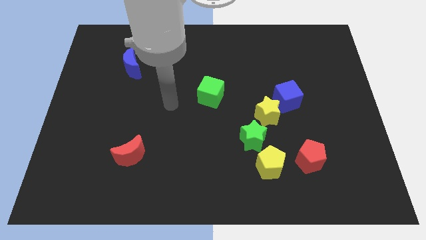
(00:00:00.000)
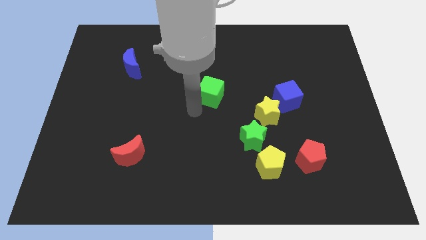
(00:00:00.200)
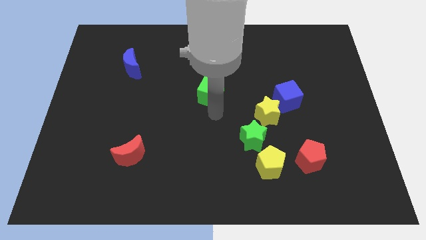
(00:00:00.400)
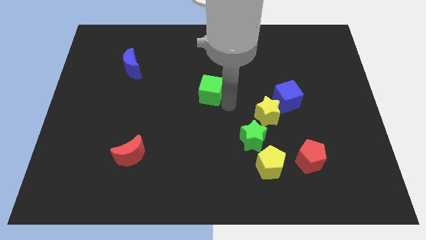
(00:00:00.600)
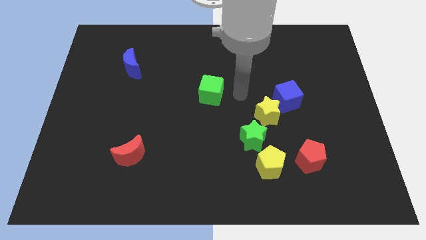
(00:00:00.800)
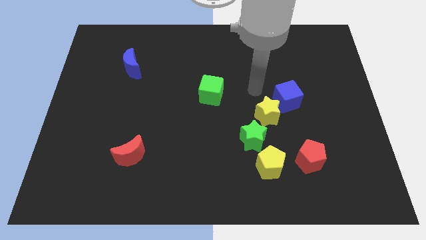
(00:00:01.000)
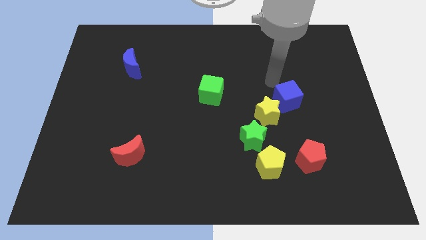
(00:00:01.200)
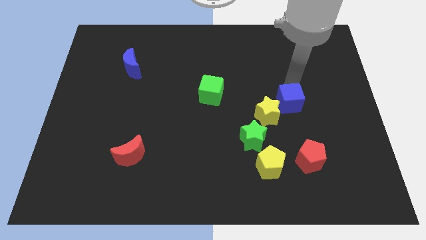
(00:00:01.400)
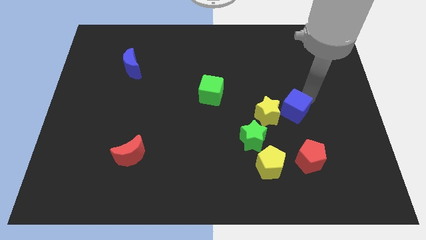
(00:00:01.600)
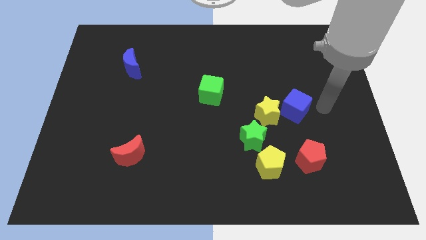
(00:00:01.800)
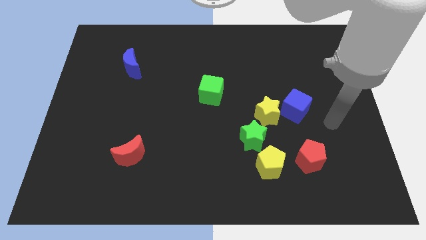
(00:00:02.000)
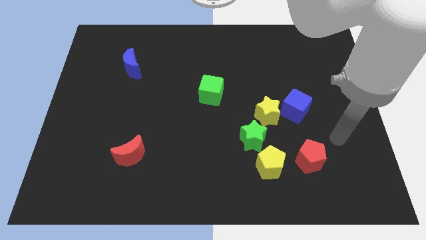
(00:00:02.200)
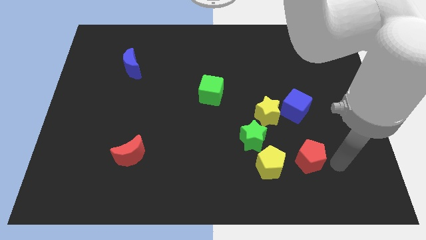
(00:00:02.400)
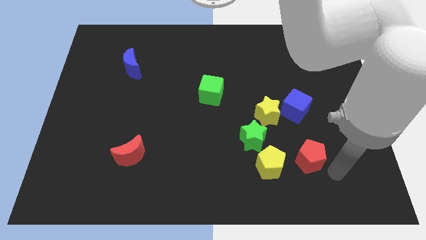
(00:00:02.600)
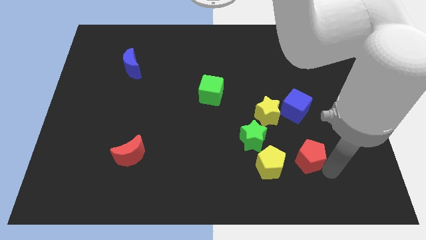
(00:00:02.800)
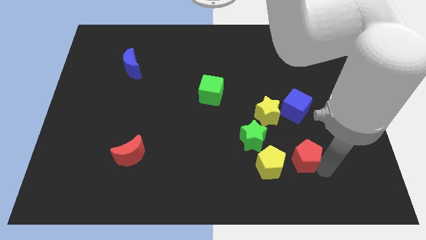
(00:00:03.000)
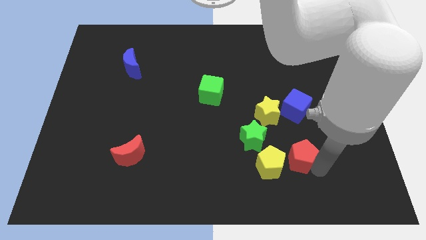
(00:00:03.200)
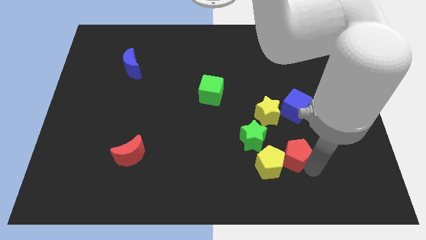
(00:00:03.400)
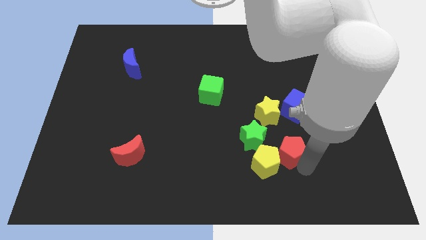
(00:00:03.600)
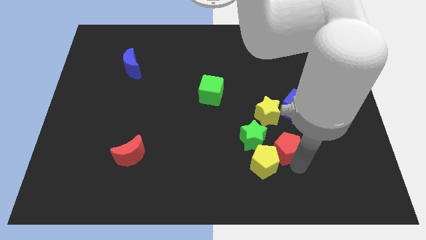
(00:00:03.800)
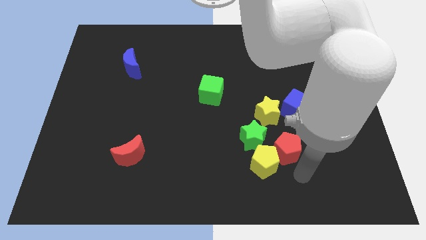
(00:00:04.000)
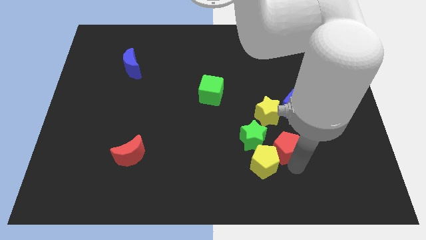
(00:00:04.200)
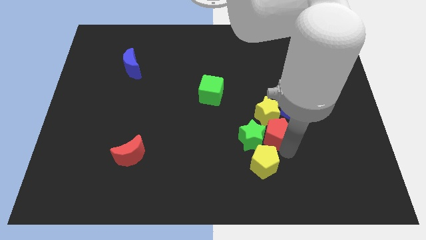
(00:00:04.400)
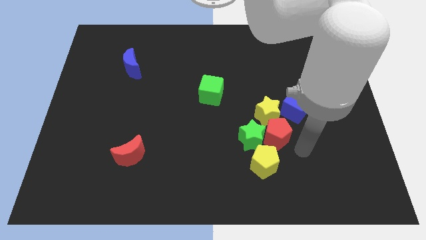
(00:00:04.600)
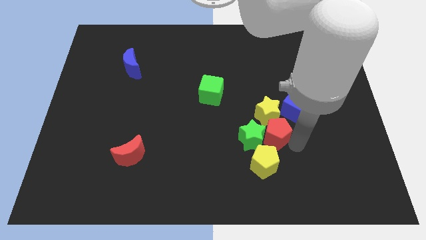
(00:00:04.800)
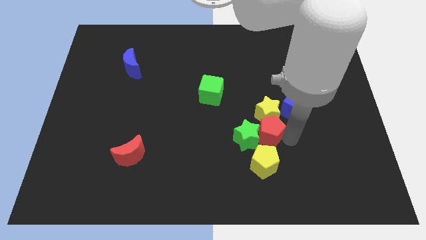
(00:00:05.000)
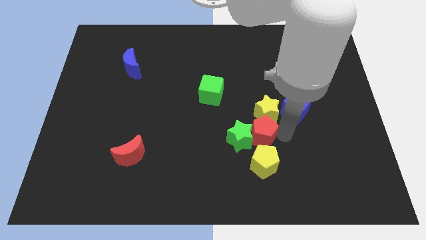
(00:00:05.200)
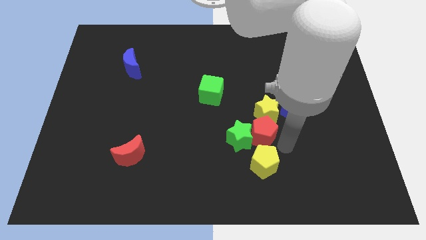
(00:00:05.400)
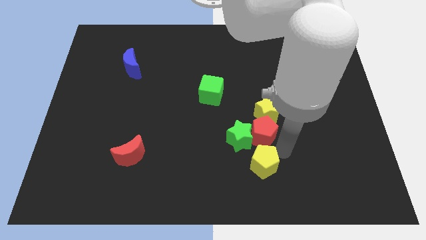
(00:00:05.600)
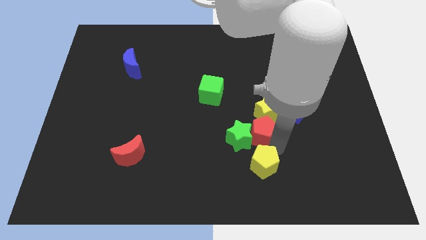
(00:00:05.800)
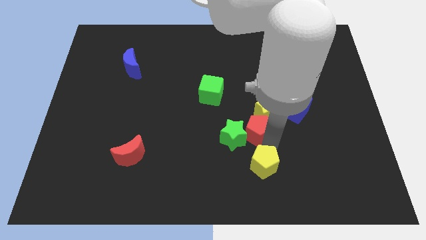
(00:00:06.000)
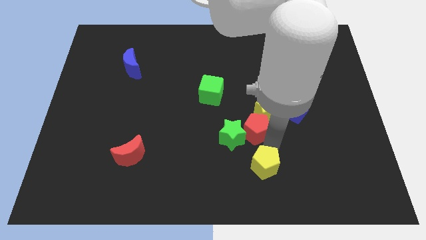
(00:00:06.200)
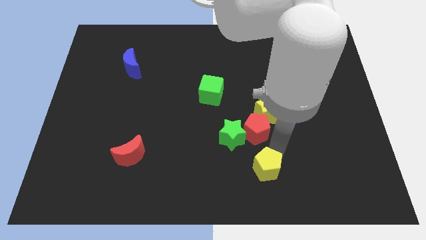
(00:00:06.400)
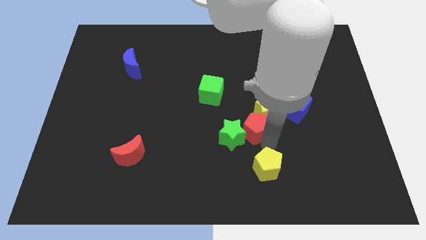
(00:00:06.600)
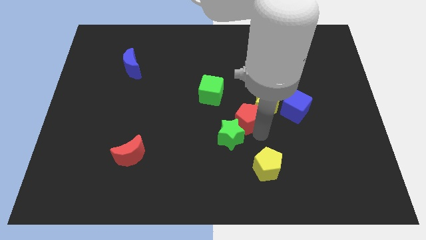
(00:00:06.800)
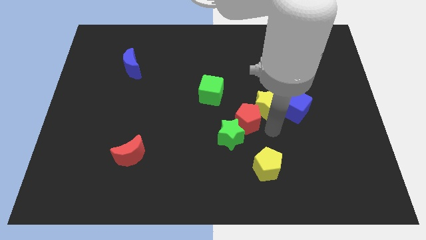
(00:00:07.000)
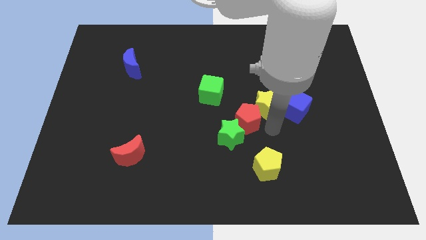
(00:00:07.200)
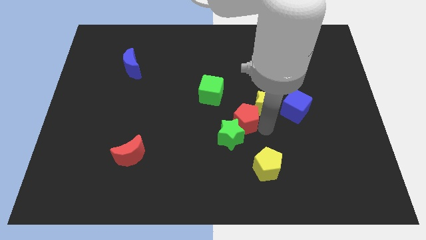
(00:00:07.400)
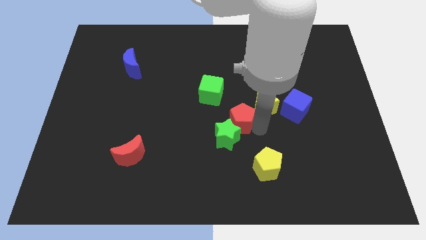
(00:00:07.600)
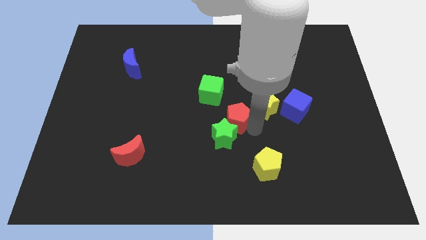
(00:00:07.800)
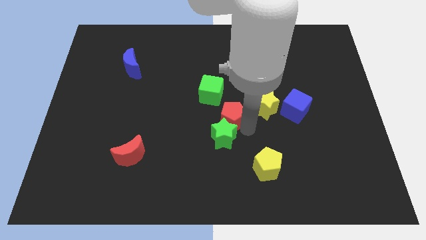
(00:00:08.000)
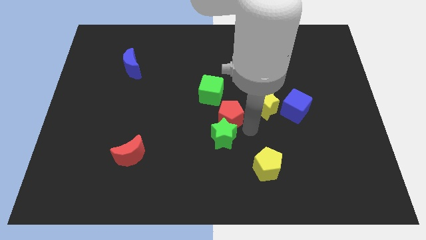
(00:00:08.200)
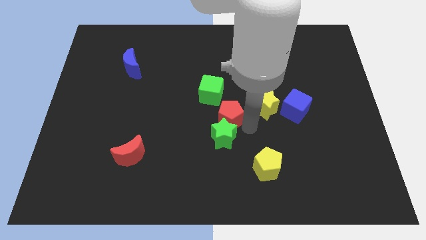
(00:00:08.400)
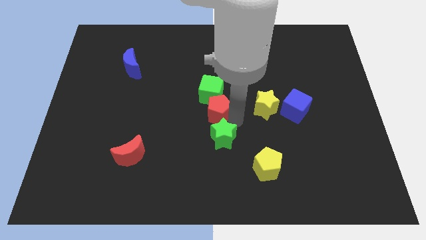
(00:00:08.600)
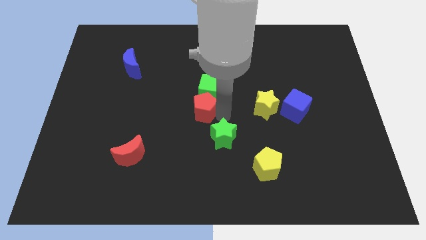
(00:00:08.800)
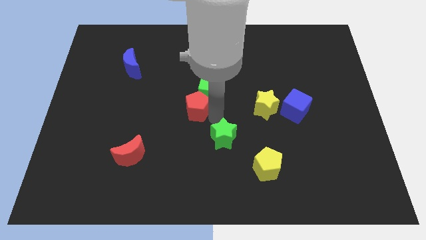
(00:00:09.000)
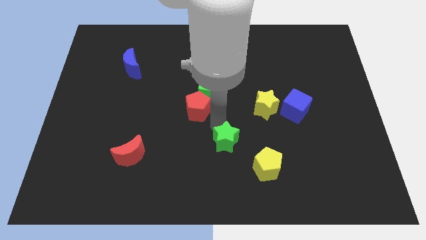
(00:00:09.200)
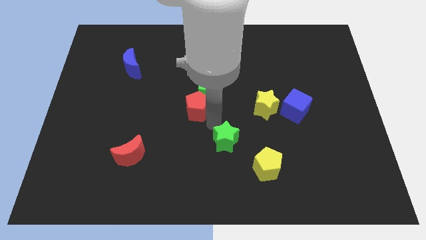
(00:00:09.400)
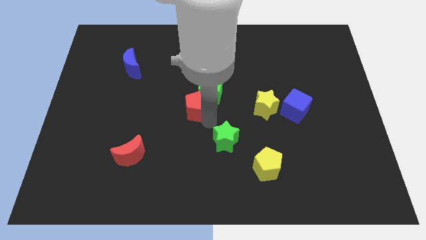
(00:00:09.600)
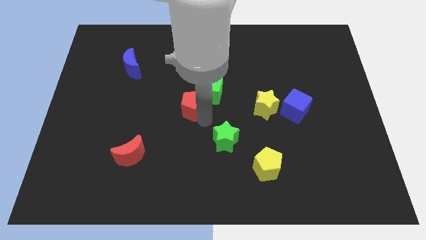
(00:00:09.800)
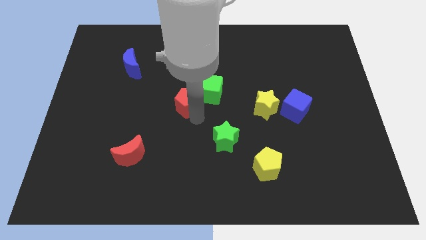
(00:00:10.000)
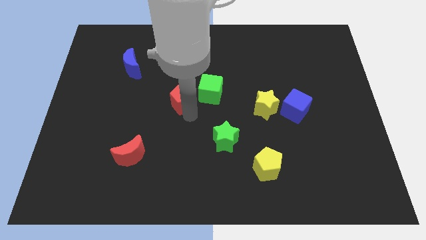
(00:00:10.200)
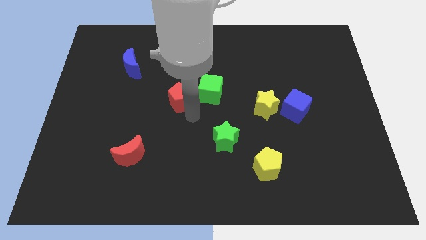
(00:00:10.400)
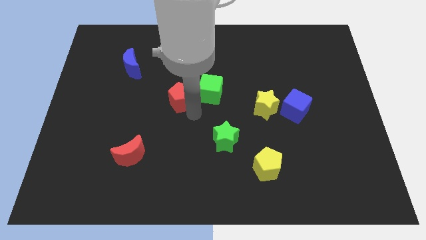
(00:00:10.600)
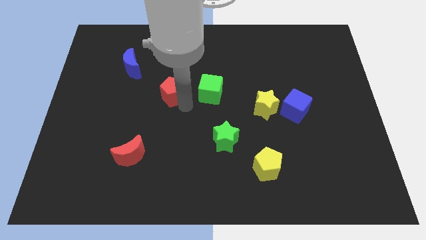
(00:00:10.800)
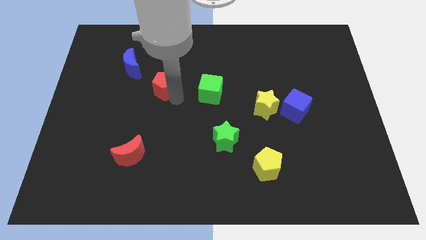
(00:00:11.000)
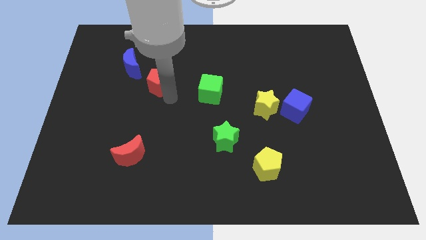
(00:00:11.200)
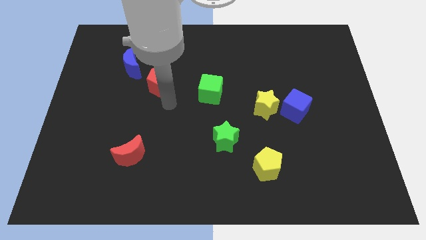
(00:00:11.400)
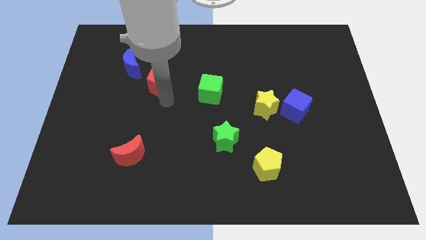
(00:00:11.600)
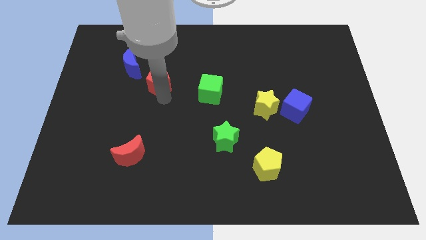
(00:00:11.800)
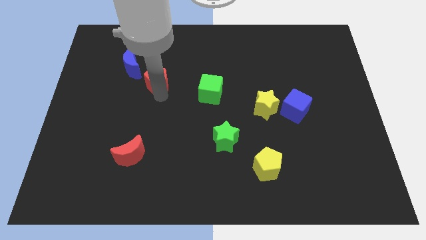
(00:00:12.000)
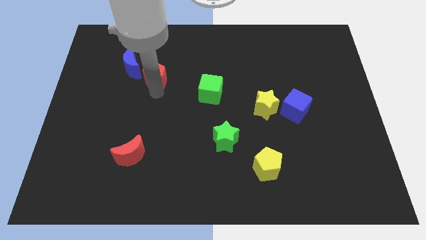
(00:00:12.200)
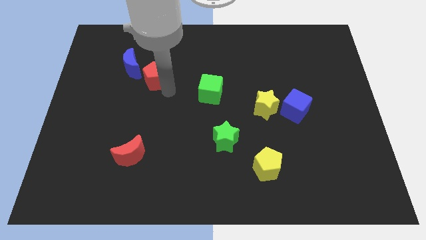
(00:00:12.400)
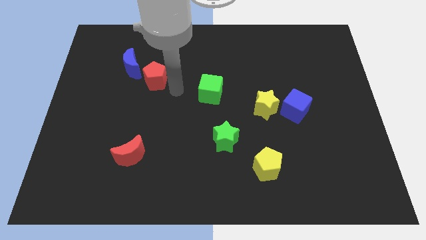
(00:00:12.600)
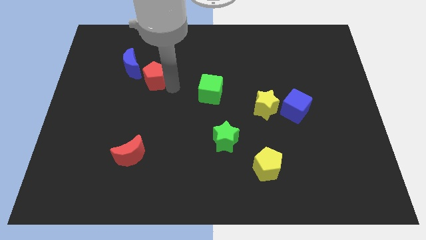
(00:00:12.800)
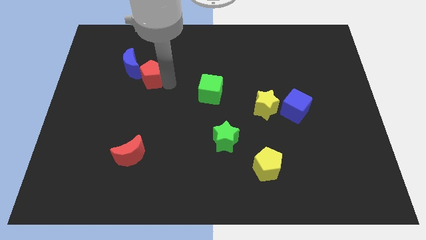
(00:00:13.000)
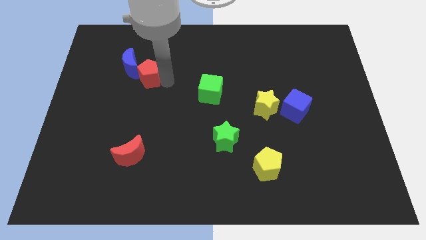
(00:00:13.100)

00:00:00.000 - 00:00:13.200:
put the red pentagon next to the blue moon

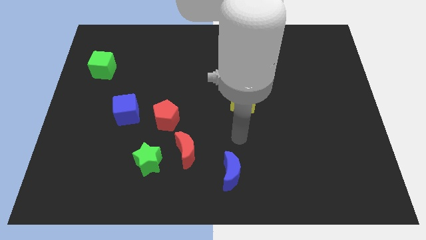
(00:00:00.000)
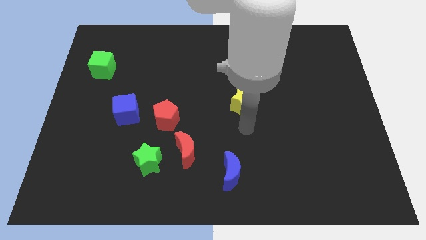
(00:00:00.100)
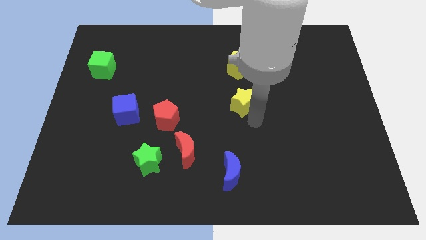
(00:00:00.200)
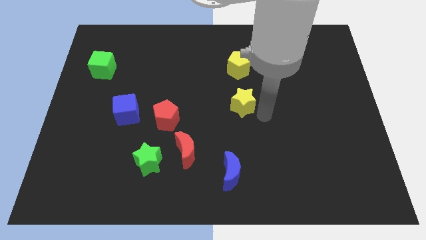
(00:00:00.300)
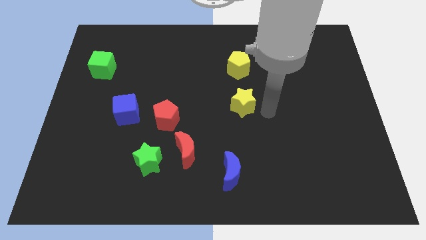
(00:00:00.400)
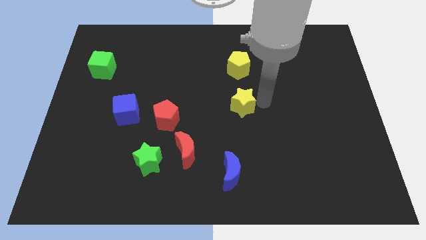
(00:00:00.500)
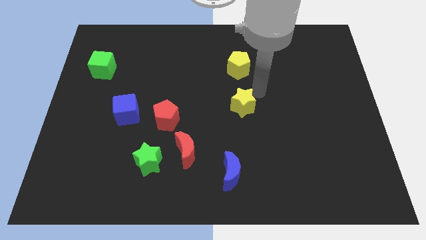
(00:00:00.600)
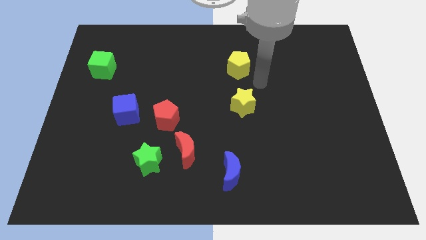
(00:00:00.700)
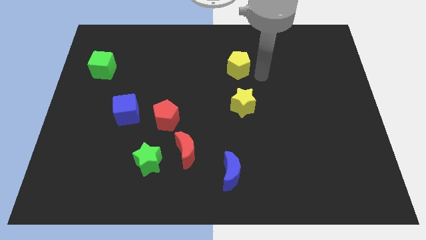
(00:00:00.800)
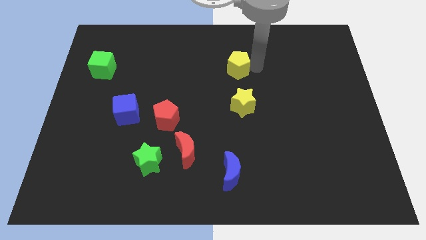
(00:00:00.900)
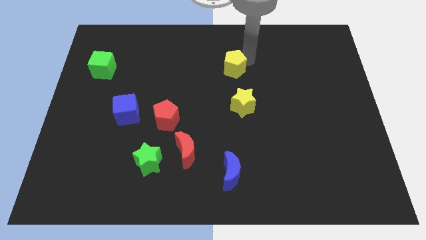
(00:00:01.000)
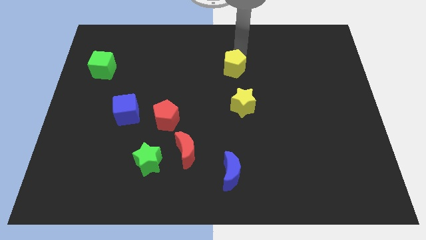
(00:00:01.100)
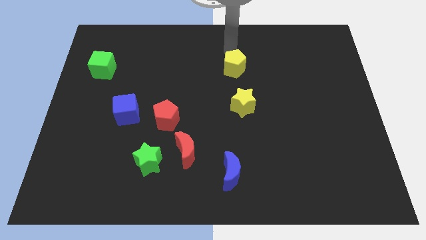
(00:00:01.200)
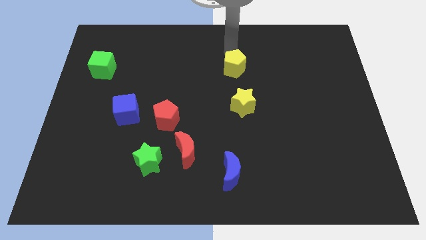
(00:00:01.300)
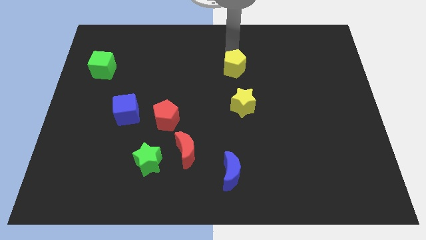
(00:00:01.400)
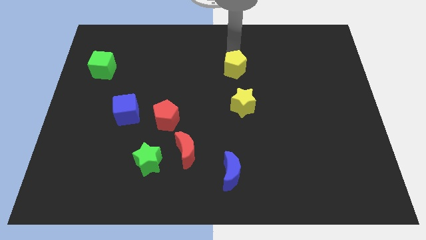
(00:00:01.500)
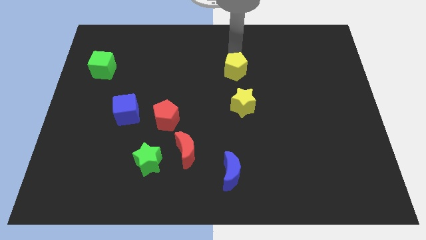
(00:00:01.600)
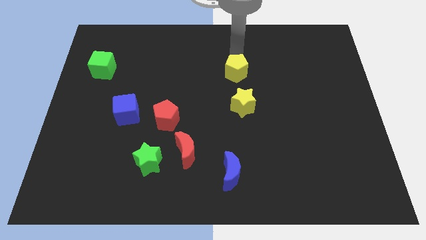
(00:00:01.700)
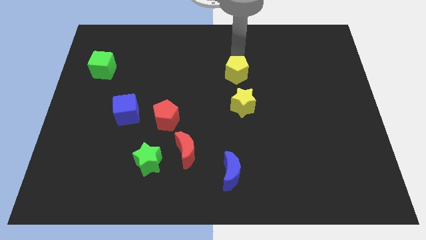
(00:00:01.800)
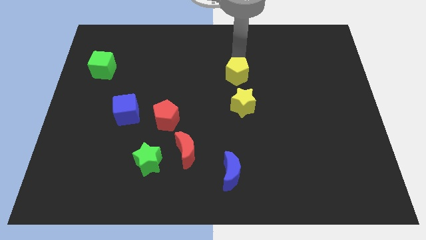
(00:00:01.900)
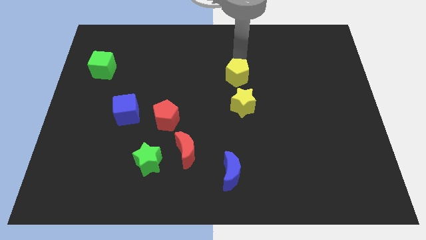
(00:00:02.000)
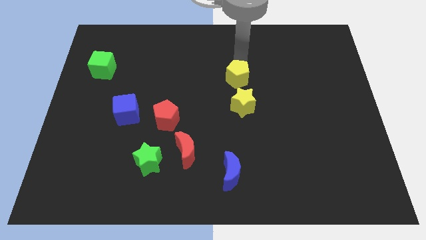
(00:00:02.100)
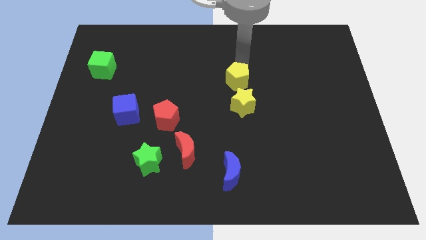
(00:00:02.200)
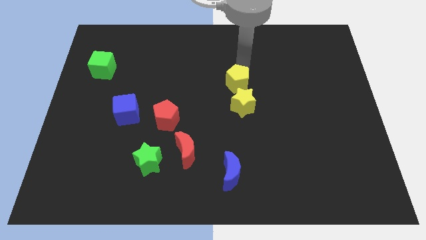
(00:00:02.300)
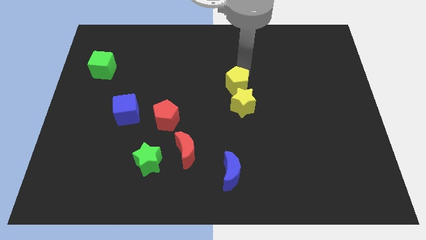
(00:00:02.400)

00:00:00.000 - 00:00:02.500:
slide the yellow pentagon next to the yellow star
